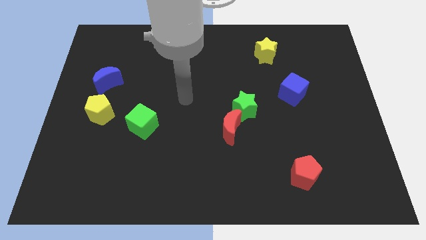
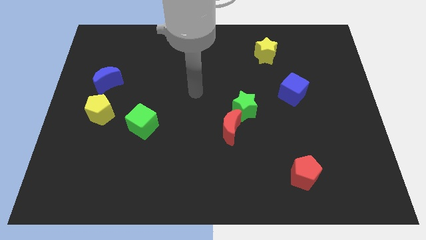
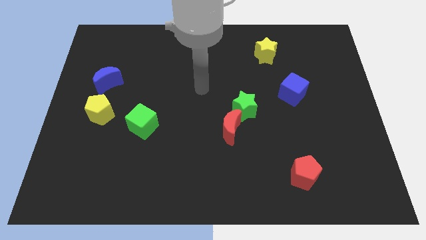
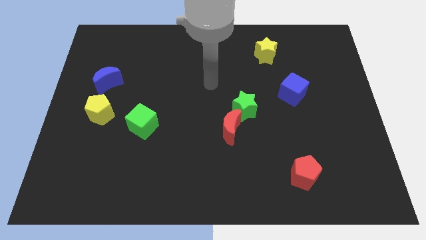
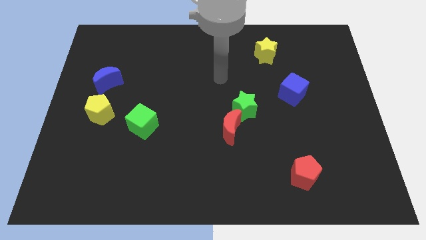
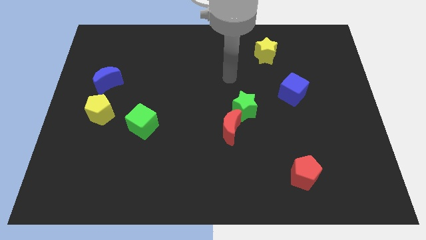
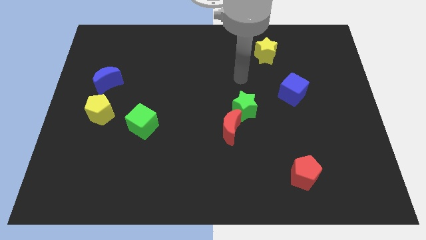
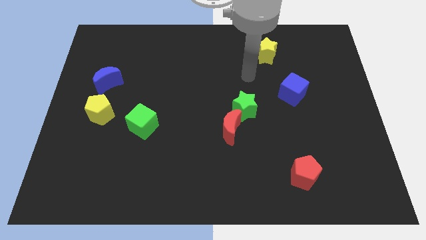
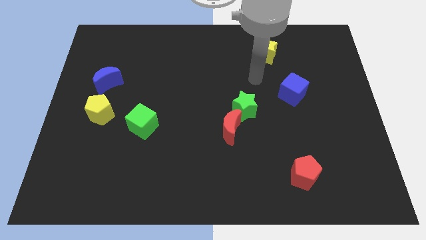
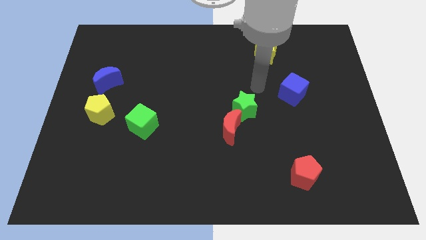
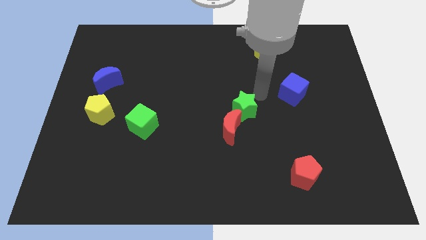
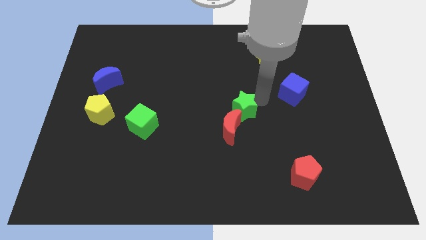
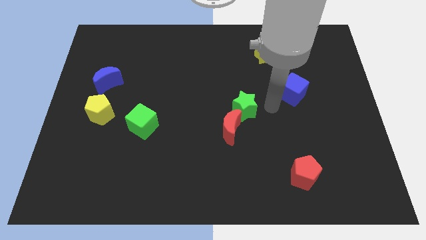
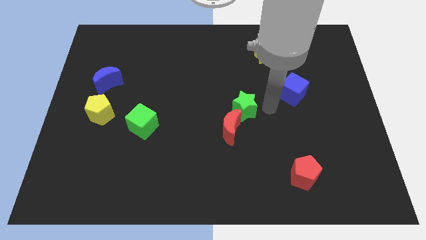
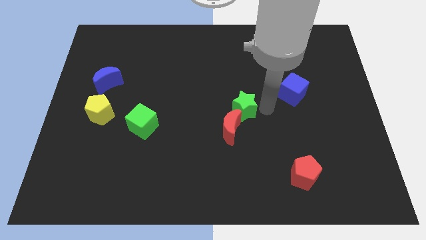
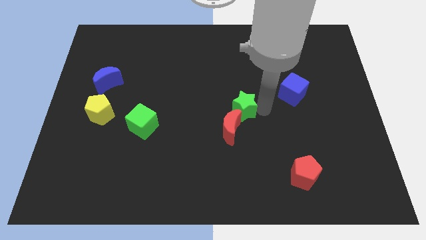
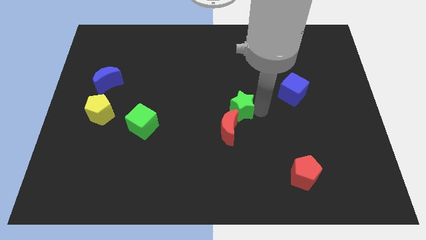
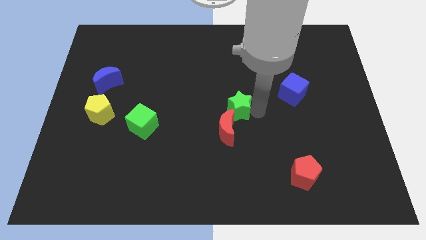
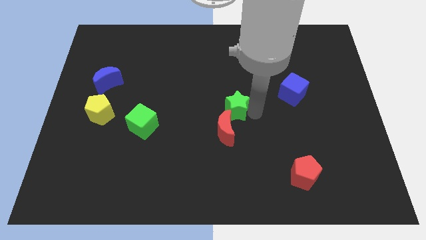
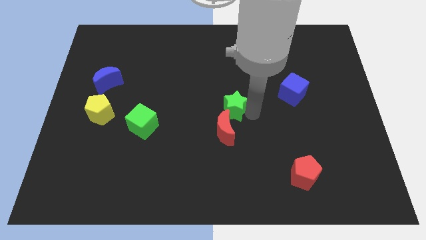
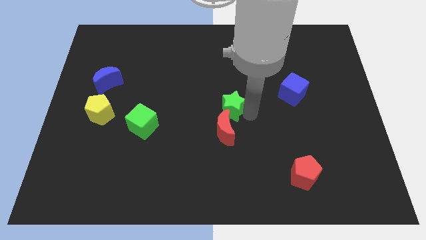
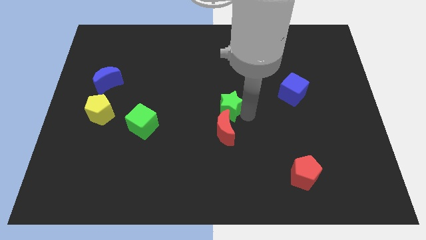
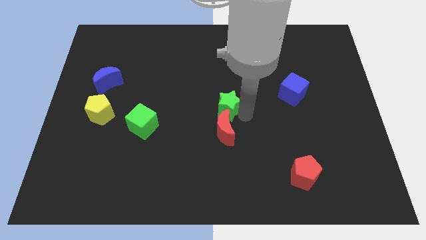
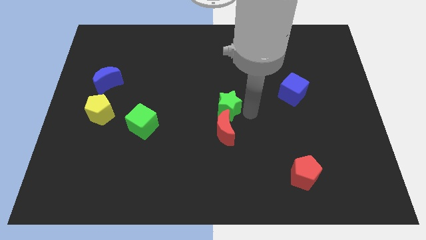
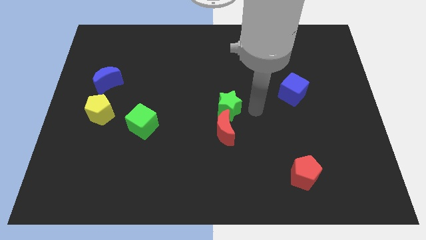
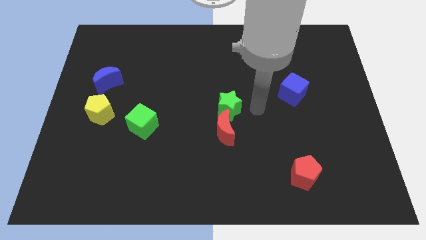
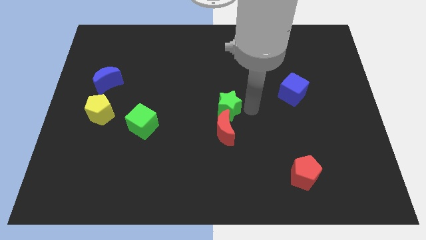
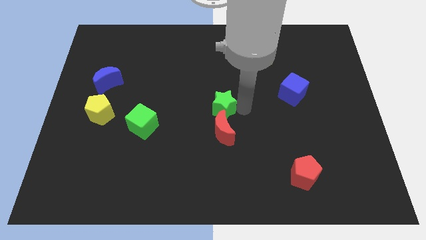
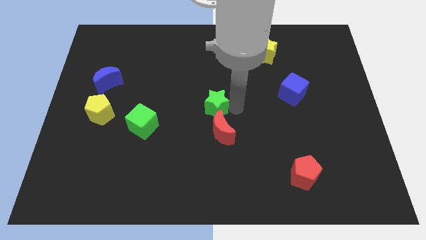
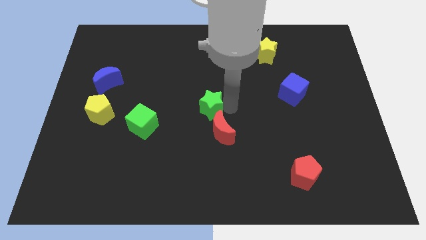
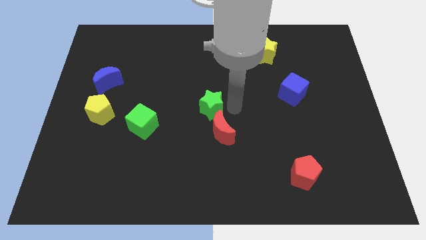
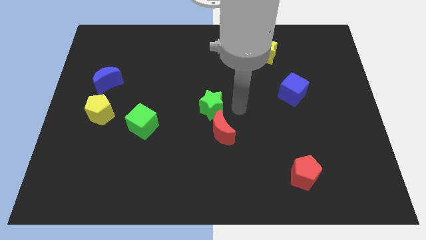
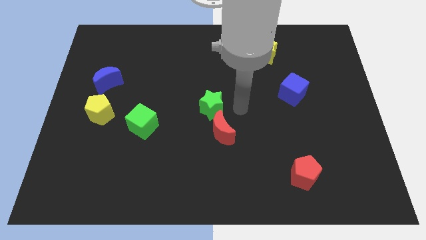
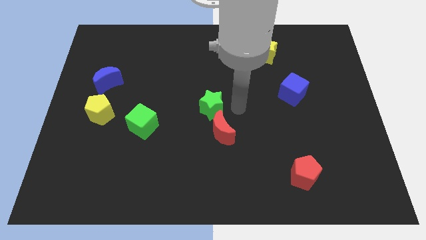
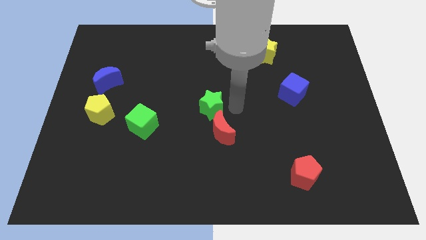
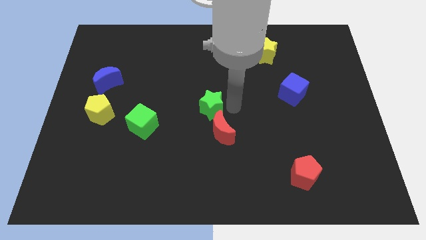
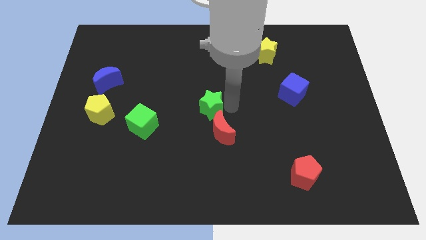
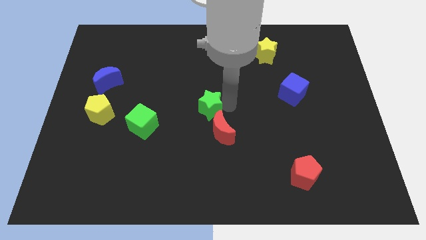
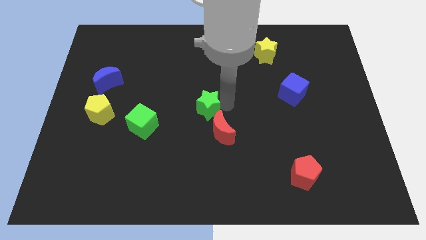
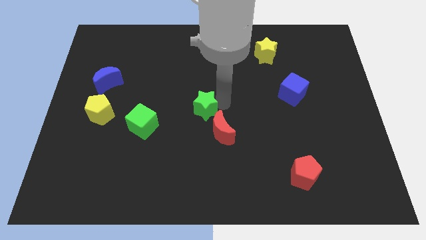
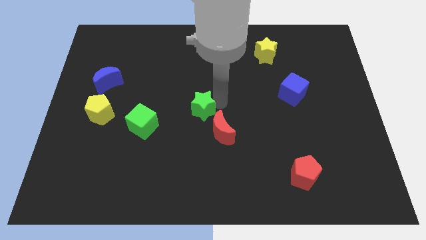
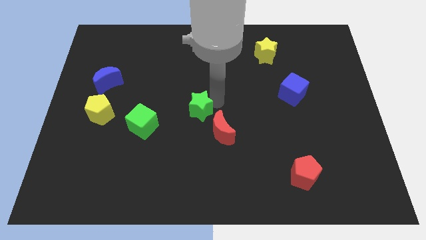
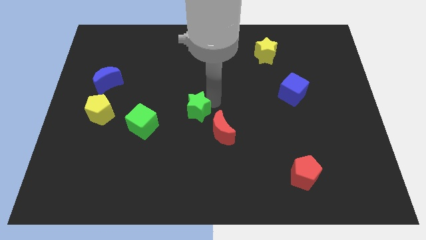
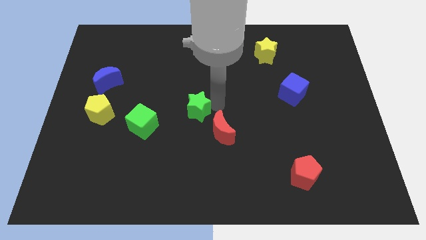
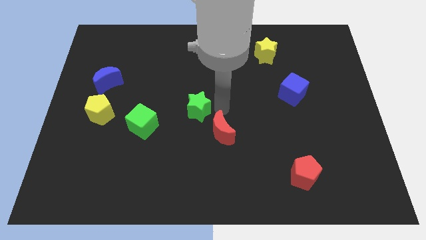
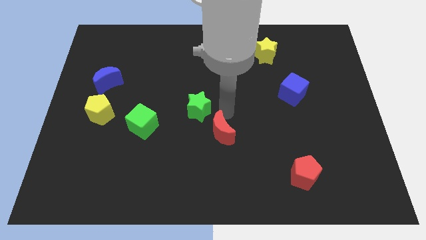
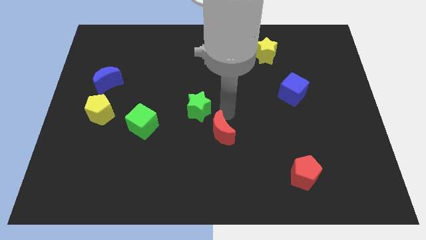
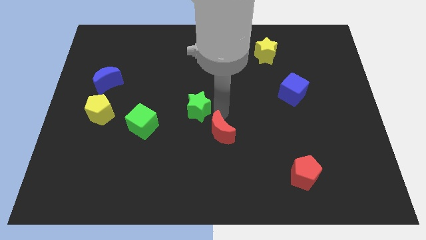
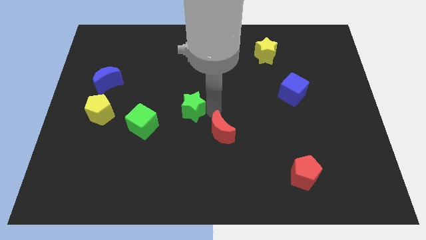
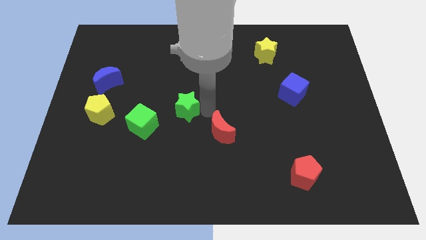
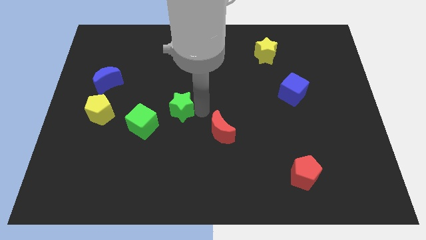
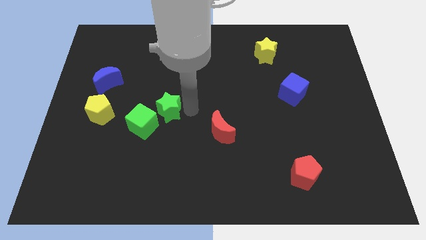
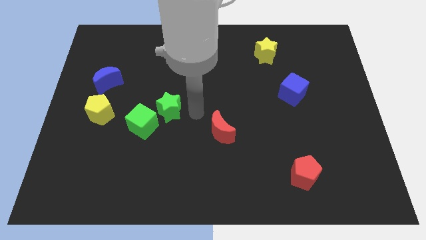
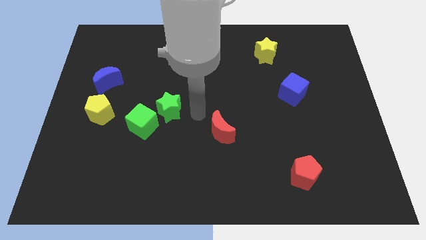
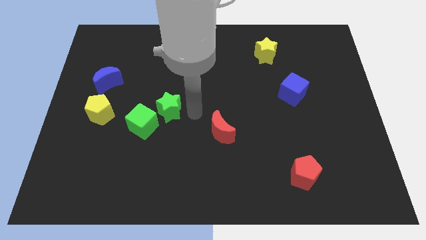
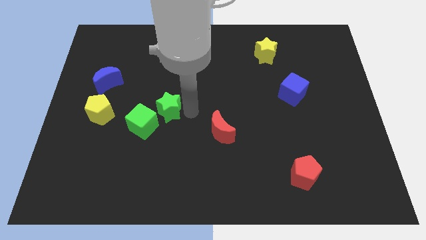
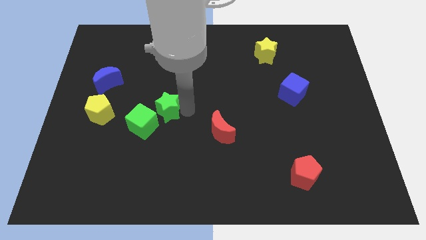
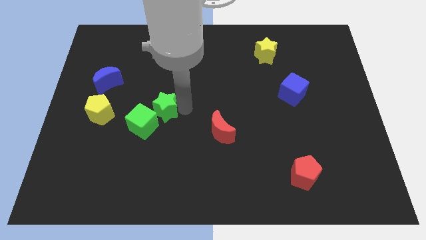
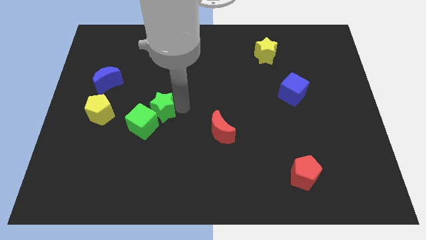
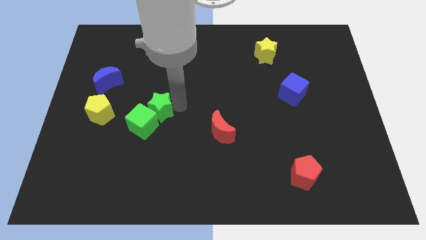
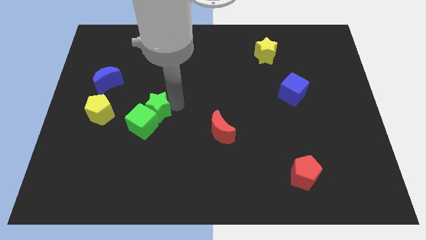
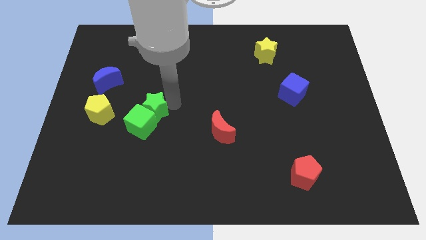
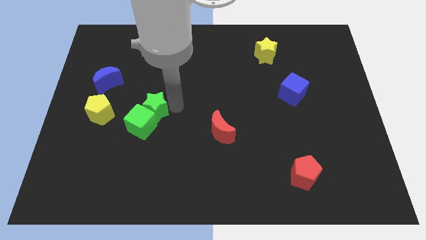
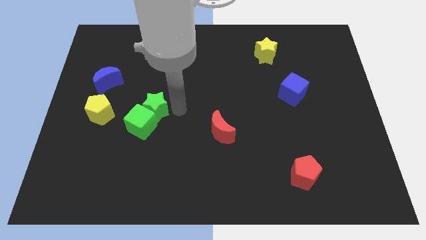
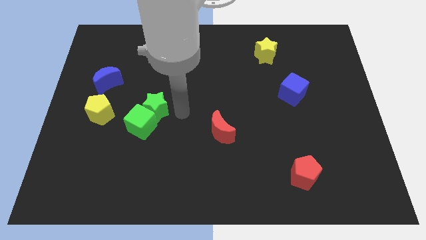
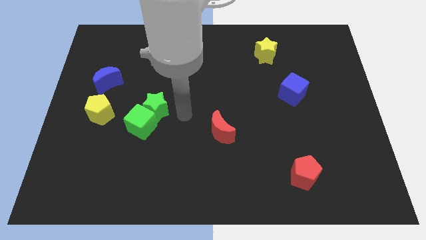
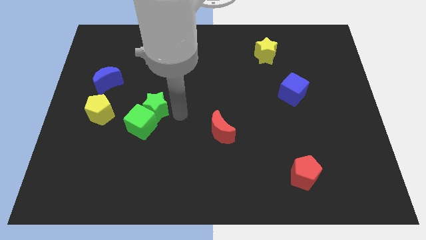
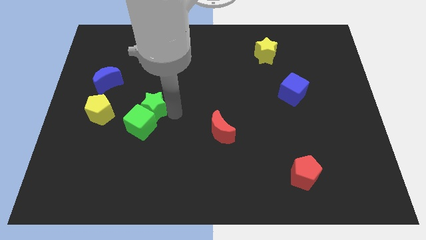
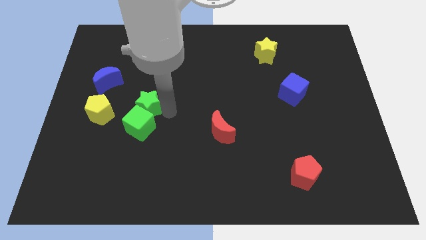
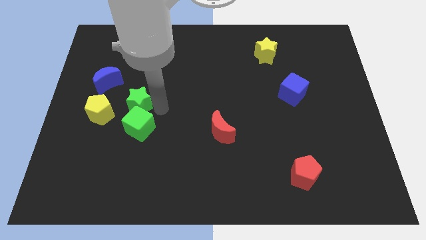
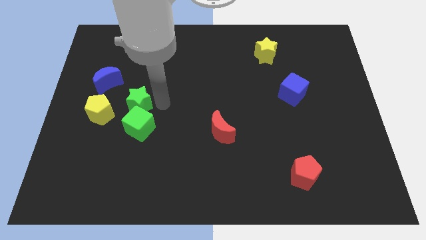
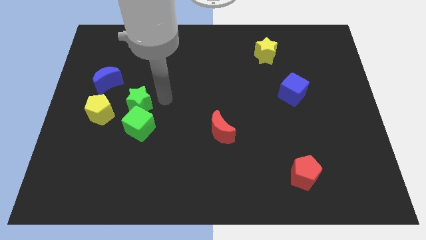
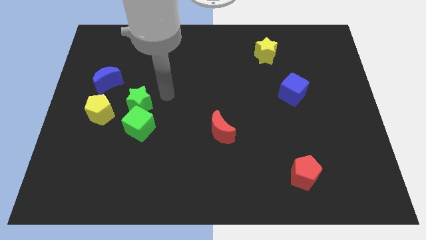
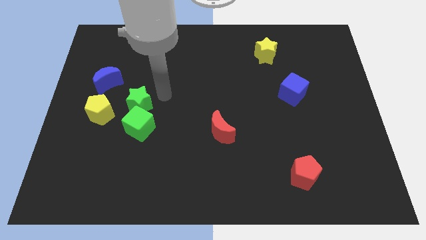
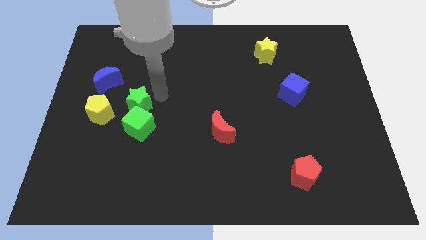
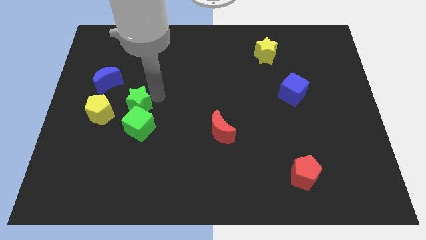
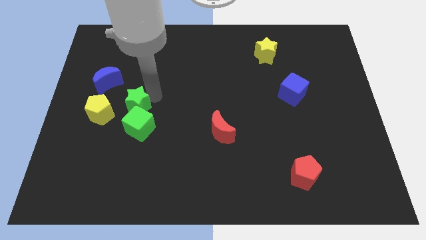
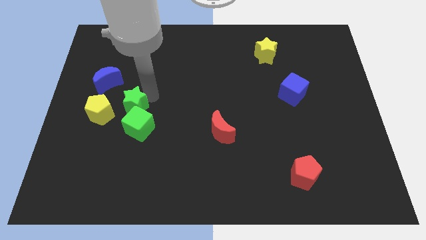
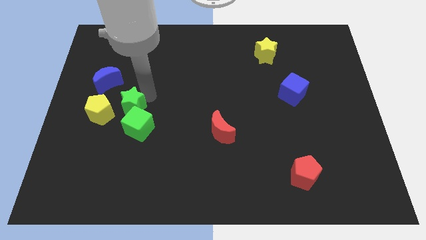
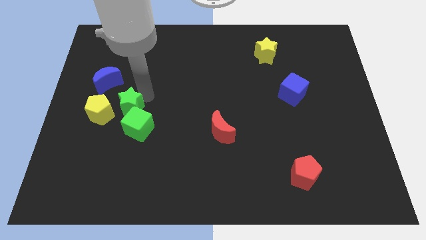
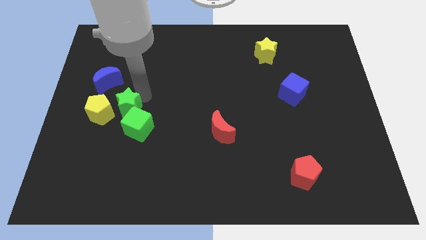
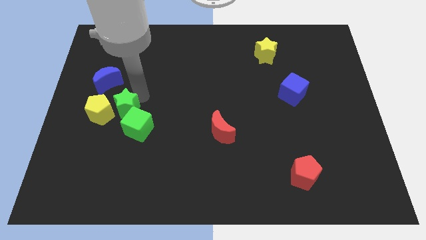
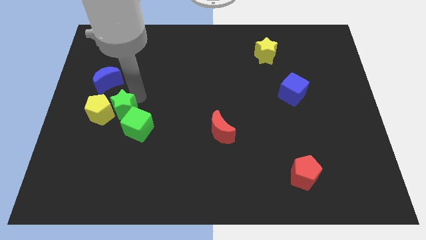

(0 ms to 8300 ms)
move the green star to the yellow pentagon
